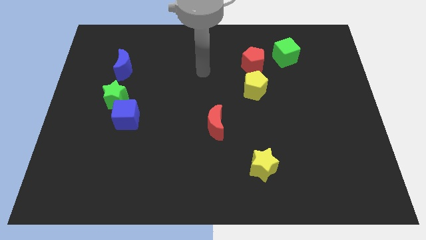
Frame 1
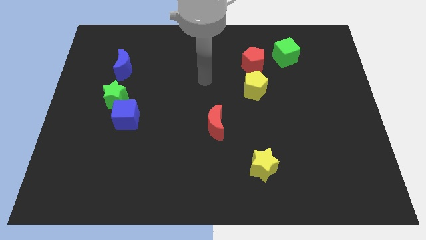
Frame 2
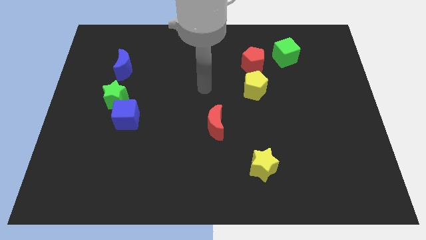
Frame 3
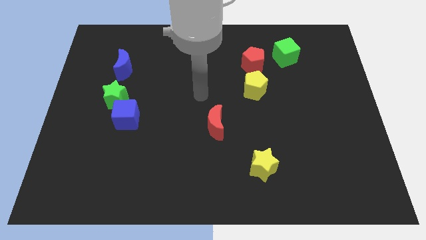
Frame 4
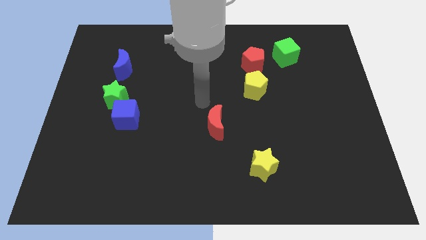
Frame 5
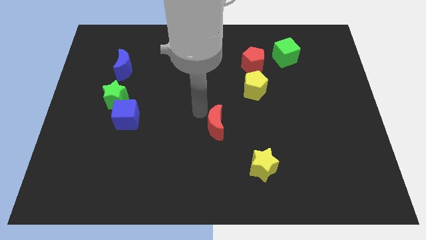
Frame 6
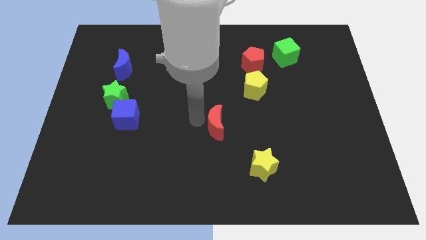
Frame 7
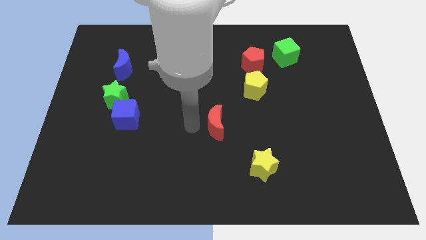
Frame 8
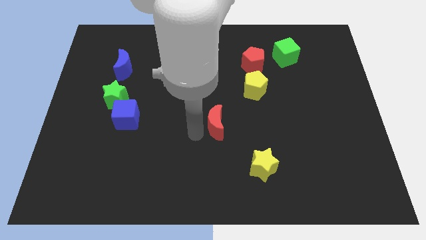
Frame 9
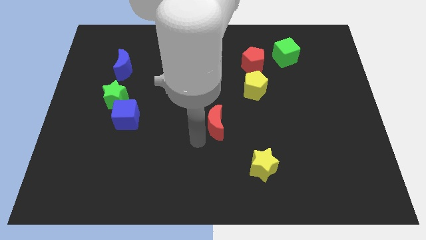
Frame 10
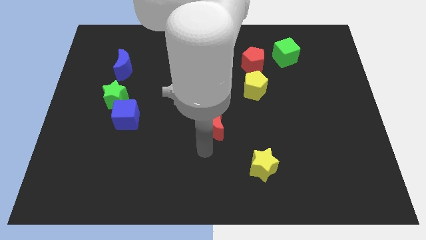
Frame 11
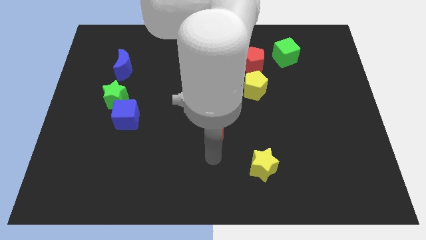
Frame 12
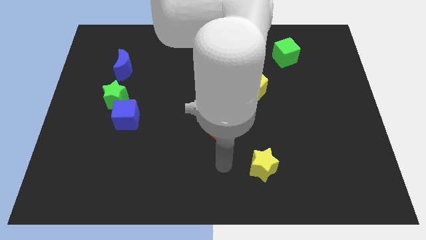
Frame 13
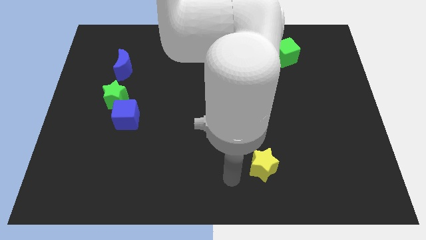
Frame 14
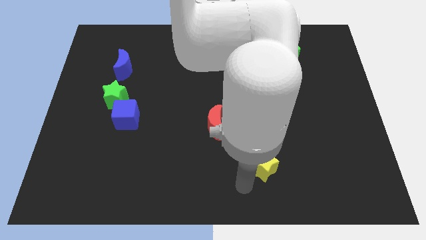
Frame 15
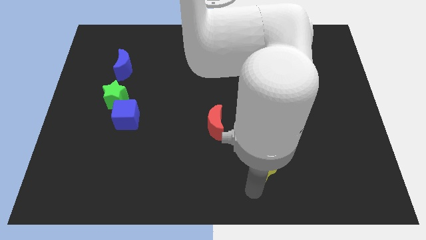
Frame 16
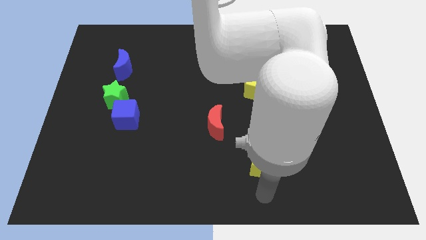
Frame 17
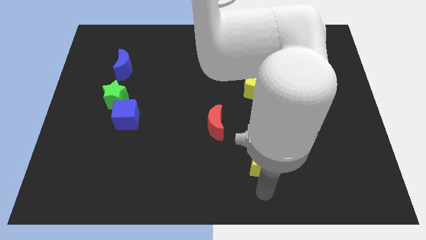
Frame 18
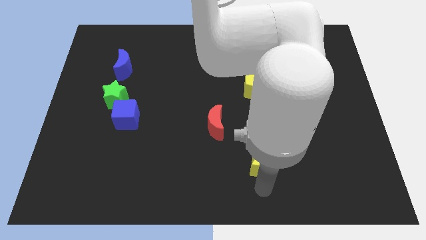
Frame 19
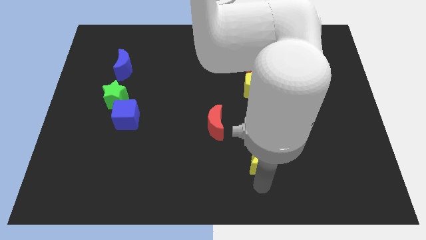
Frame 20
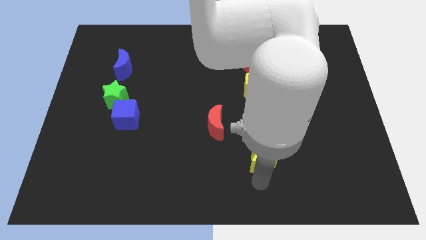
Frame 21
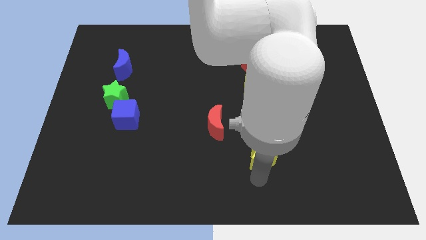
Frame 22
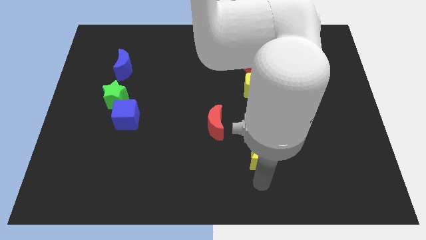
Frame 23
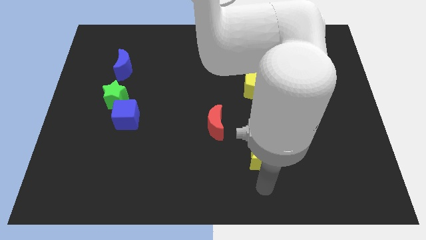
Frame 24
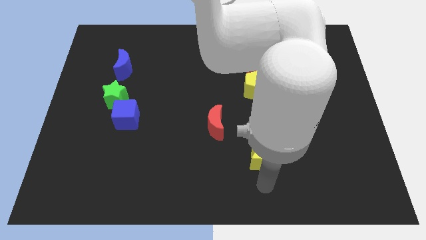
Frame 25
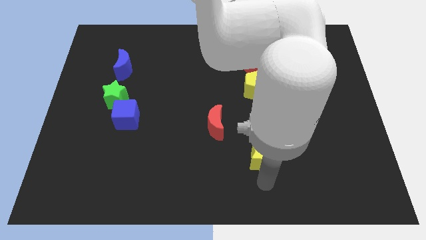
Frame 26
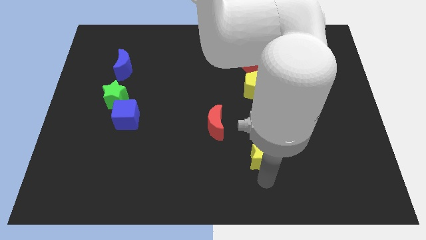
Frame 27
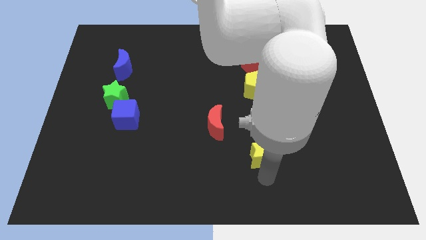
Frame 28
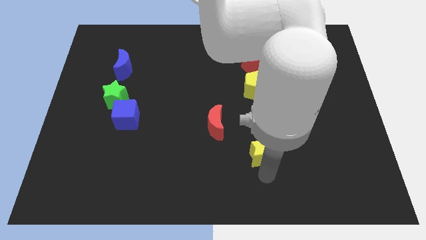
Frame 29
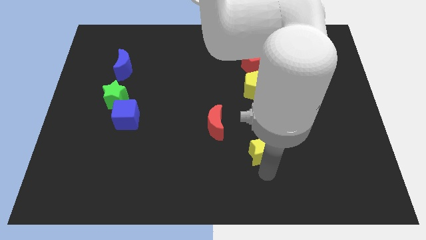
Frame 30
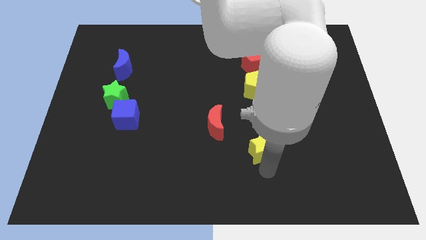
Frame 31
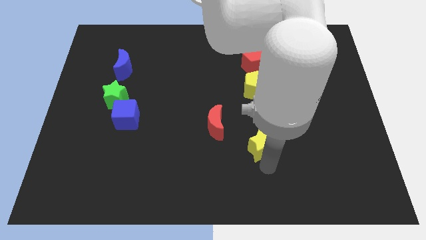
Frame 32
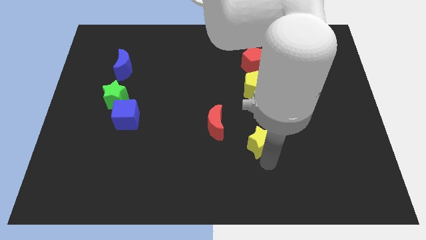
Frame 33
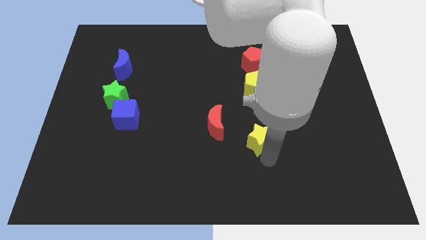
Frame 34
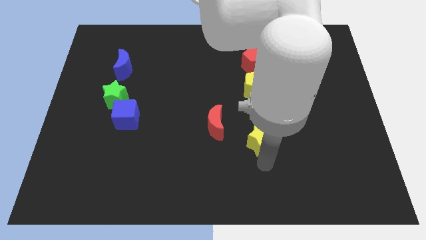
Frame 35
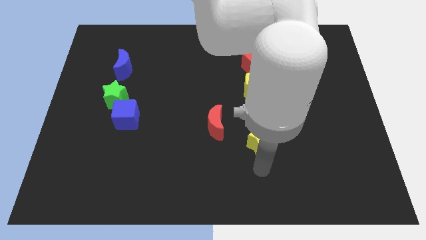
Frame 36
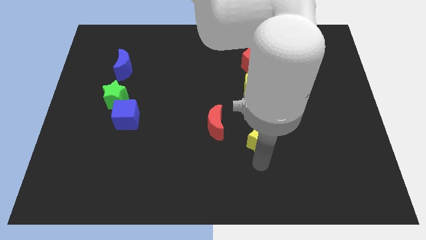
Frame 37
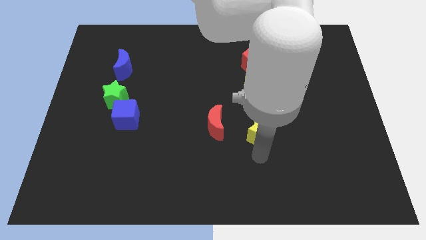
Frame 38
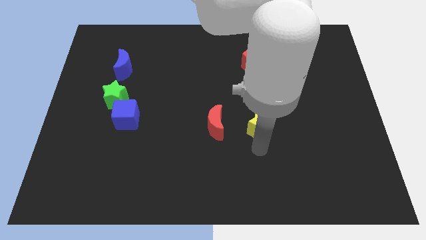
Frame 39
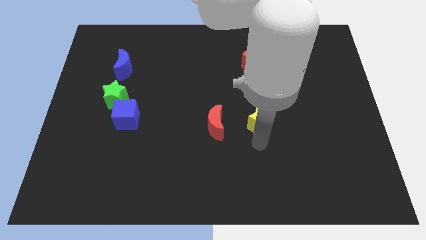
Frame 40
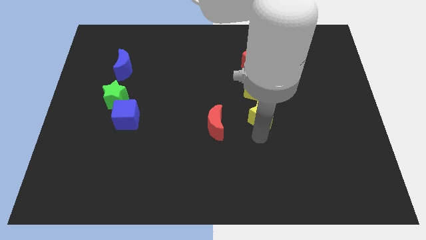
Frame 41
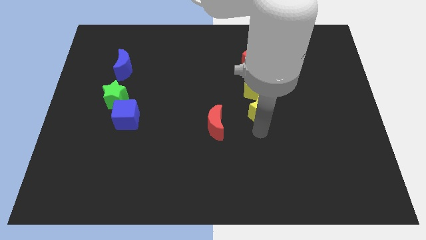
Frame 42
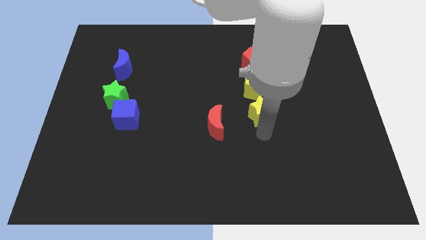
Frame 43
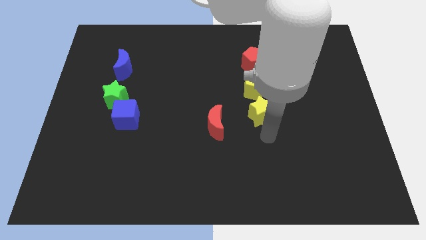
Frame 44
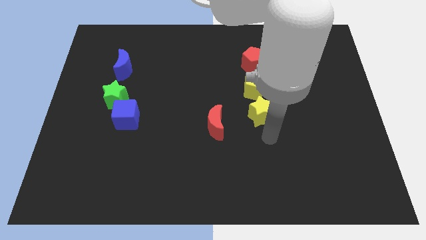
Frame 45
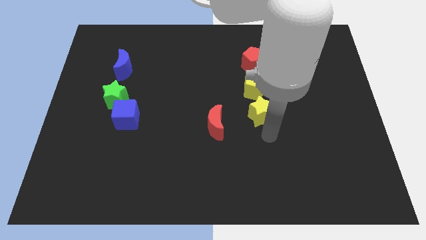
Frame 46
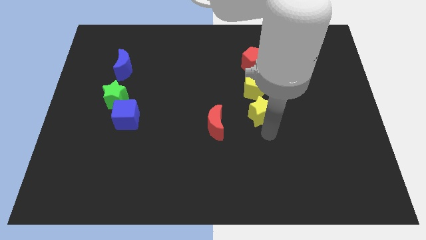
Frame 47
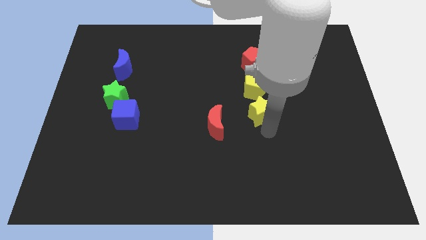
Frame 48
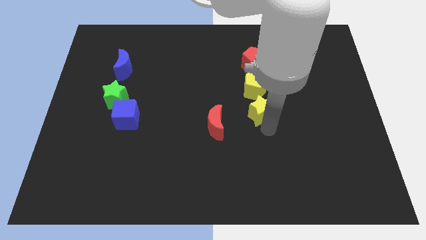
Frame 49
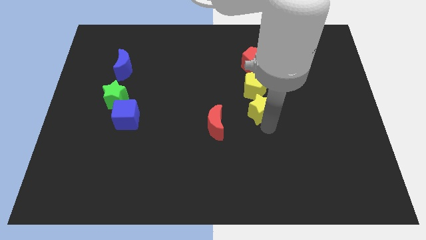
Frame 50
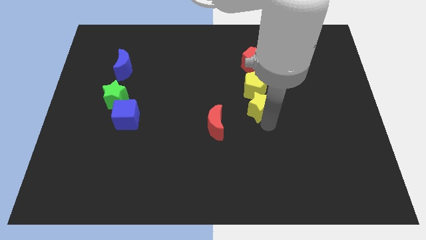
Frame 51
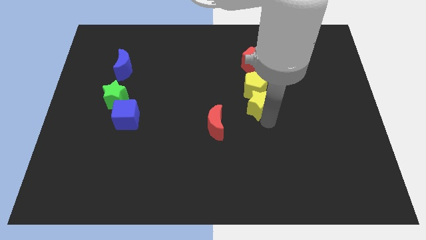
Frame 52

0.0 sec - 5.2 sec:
put the yellow star to the yellow pentagon

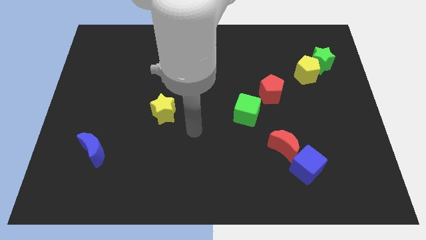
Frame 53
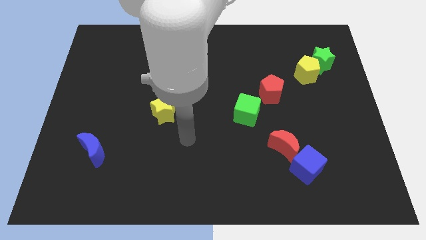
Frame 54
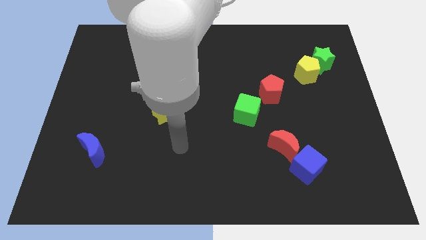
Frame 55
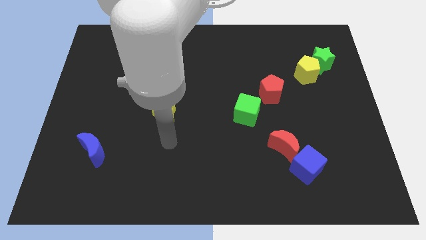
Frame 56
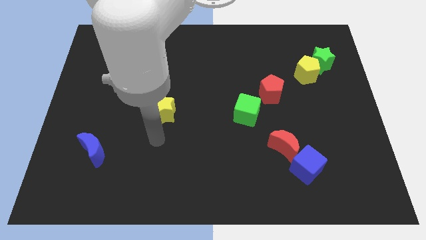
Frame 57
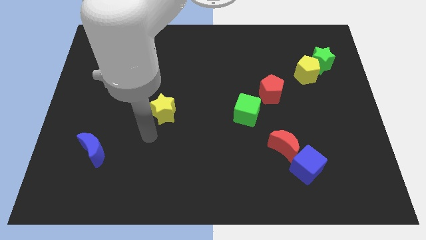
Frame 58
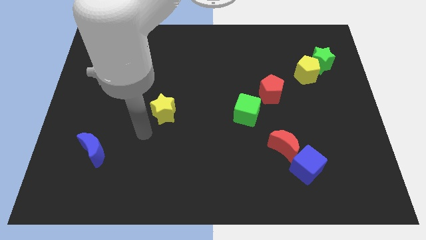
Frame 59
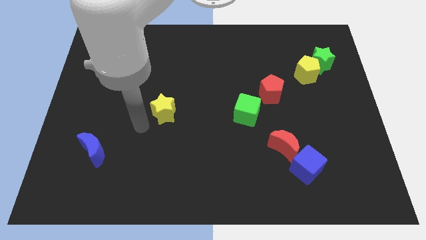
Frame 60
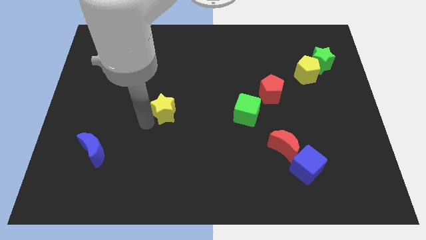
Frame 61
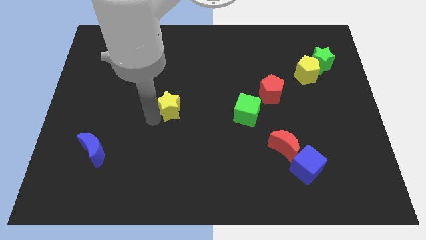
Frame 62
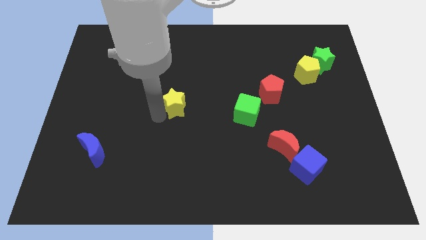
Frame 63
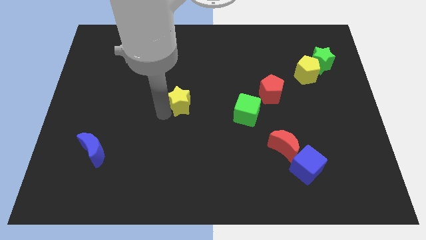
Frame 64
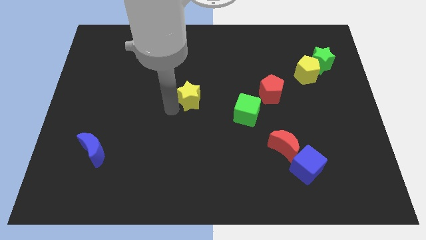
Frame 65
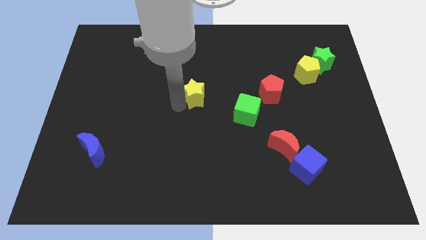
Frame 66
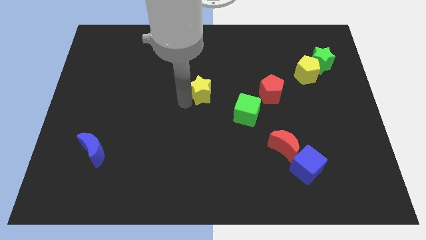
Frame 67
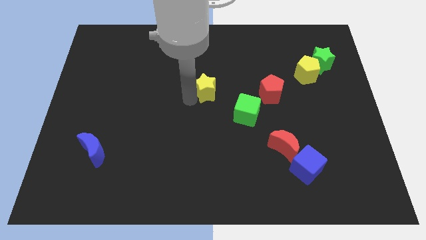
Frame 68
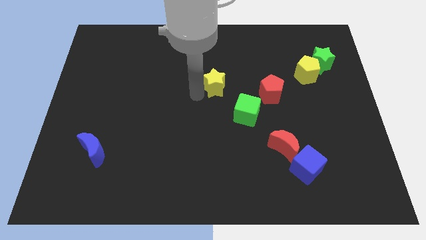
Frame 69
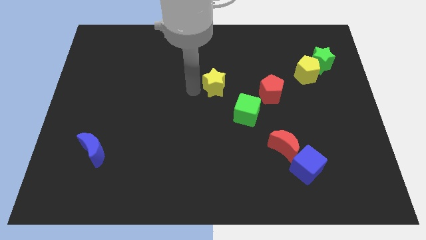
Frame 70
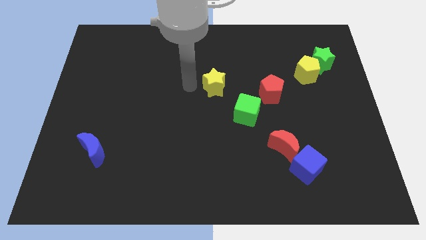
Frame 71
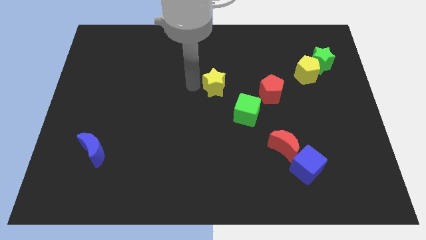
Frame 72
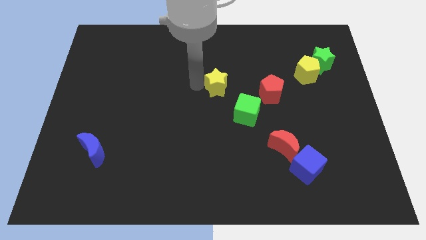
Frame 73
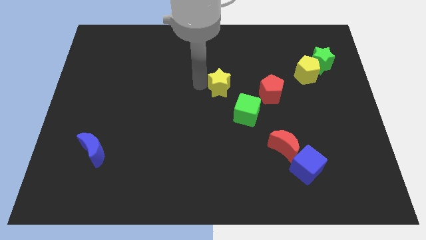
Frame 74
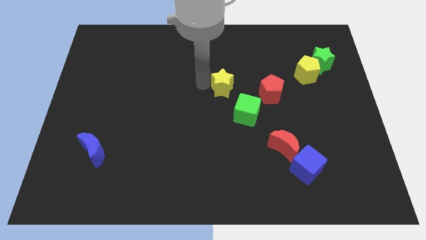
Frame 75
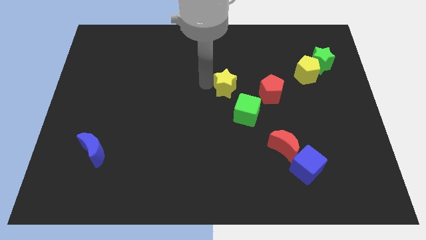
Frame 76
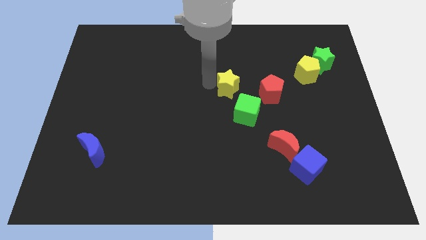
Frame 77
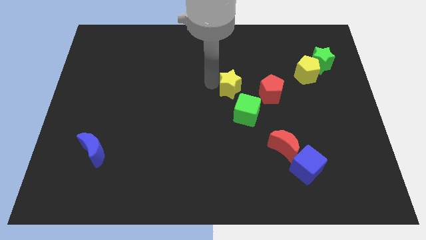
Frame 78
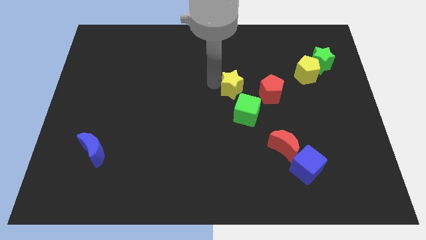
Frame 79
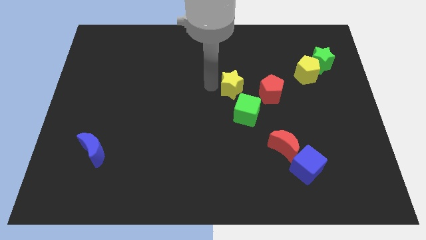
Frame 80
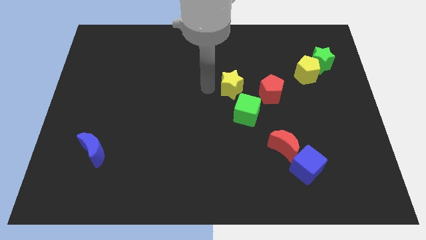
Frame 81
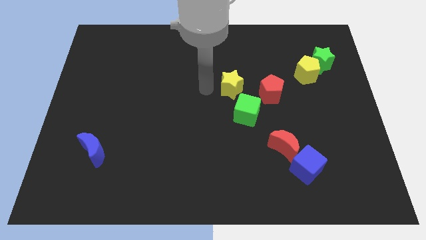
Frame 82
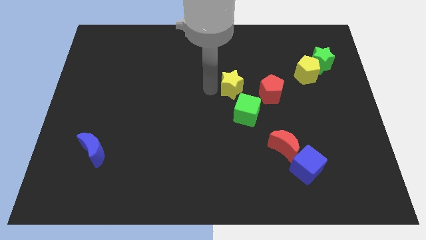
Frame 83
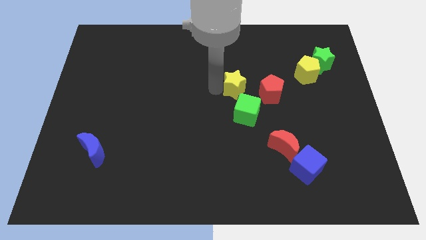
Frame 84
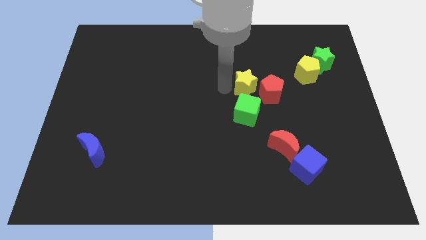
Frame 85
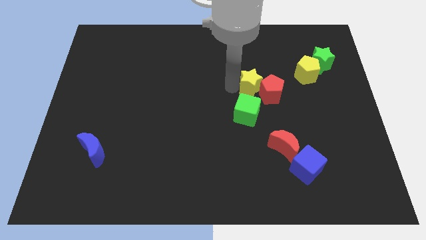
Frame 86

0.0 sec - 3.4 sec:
slide the yellow star towards the red pentagon
